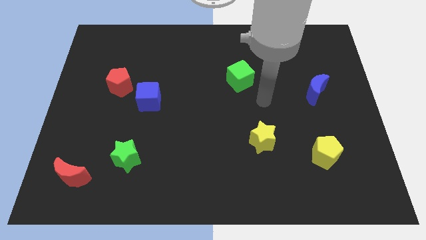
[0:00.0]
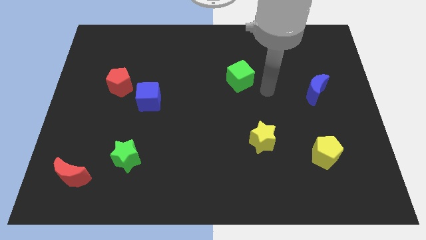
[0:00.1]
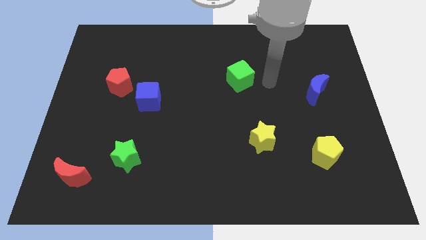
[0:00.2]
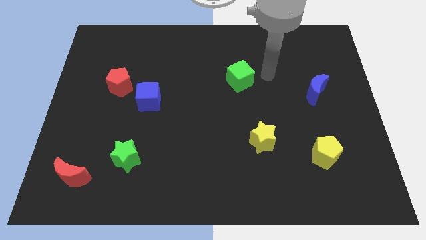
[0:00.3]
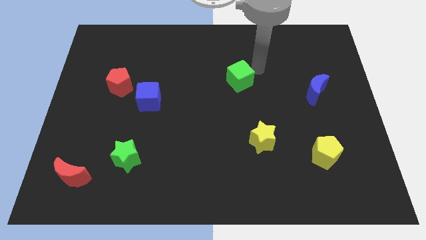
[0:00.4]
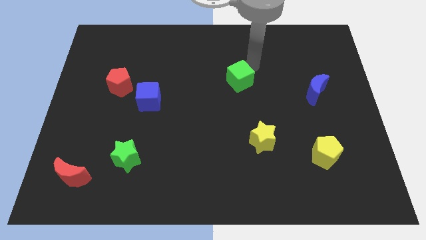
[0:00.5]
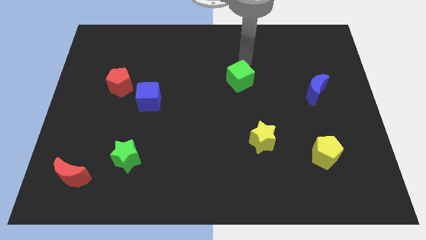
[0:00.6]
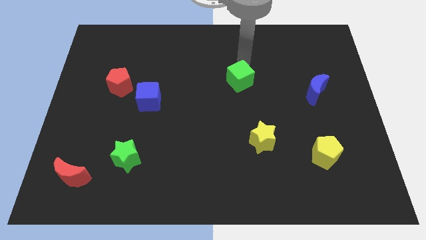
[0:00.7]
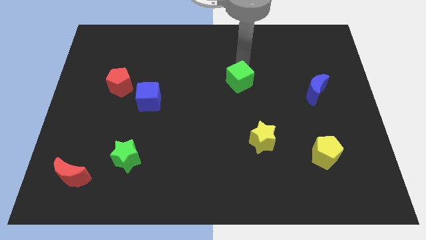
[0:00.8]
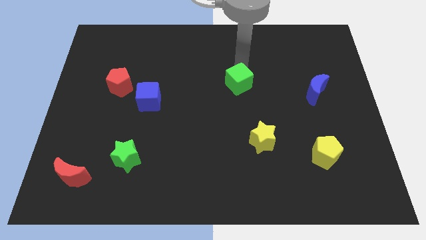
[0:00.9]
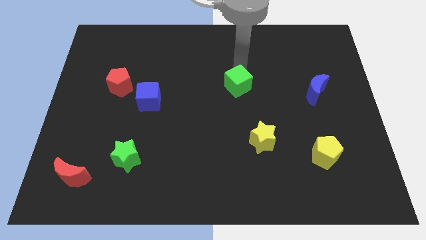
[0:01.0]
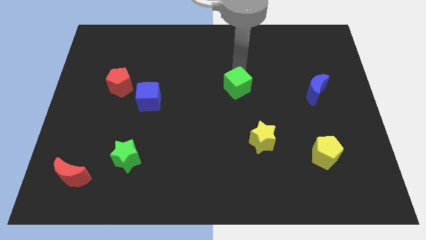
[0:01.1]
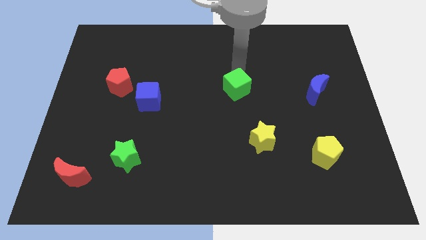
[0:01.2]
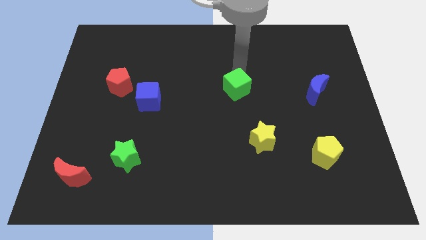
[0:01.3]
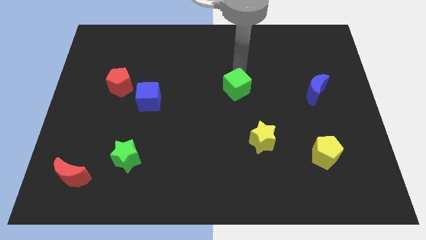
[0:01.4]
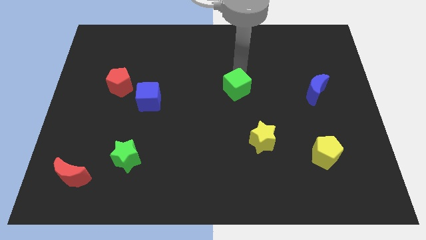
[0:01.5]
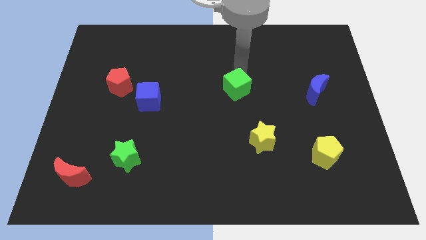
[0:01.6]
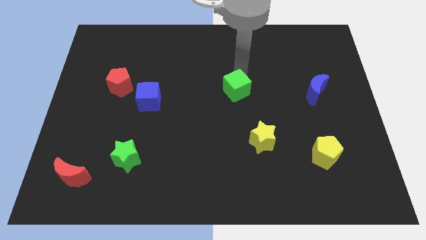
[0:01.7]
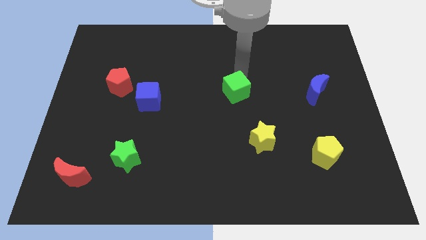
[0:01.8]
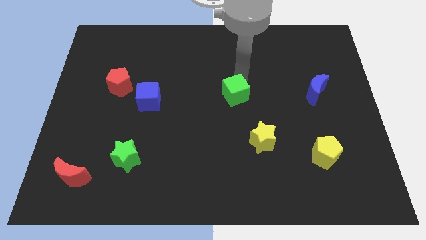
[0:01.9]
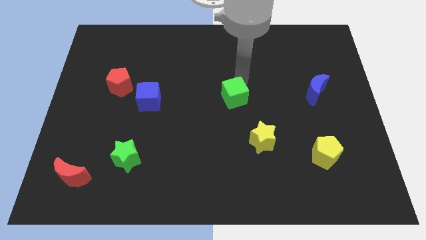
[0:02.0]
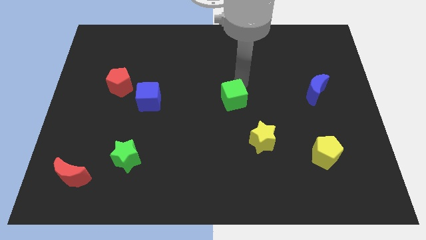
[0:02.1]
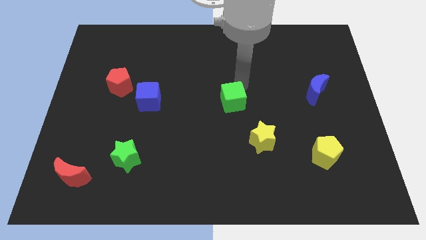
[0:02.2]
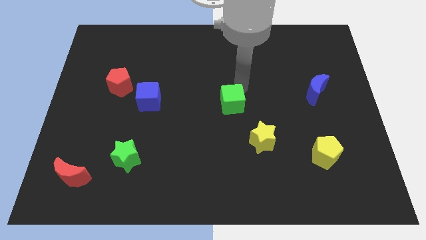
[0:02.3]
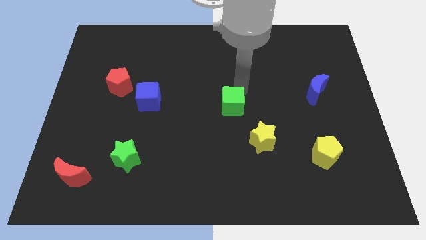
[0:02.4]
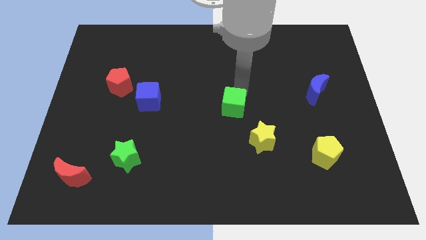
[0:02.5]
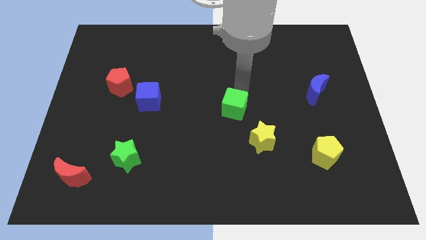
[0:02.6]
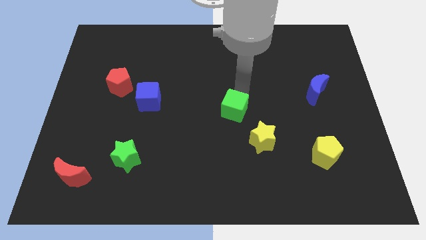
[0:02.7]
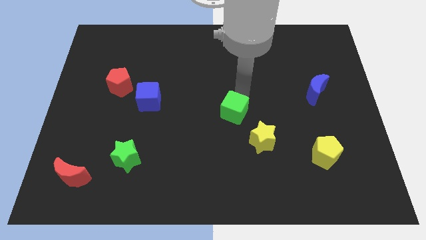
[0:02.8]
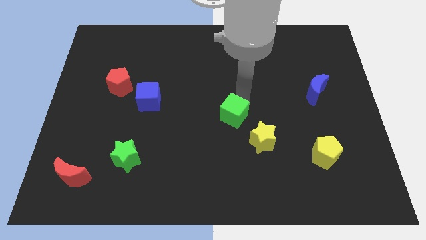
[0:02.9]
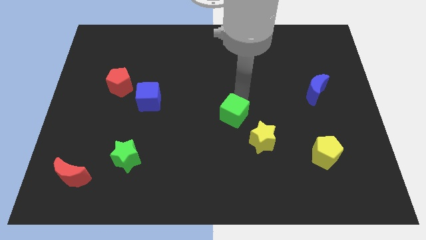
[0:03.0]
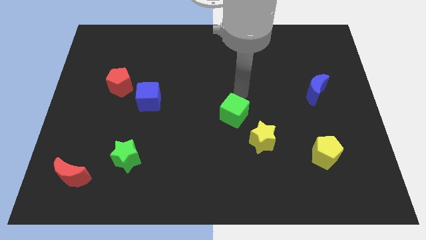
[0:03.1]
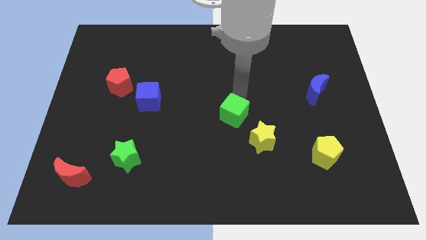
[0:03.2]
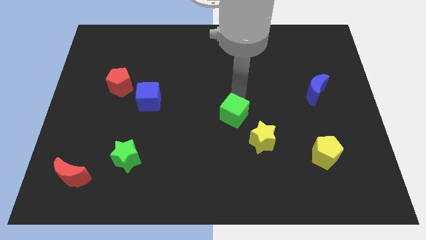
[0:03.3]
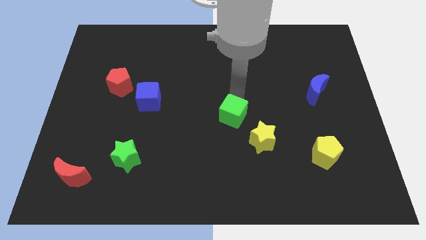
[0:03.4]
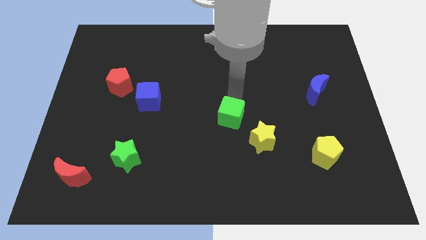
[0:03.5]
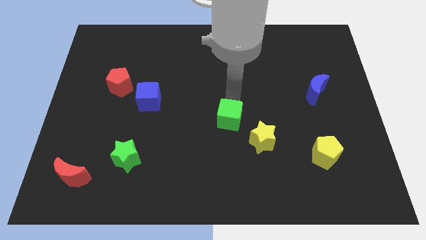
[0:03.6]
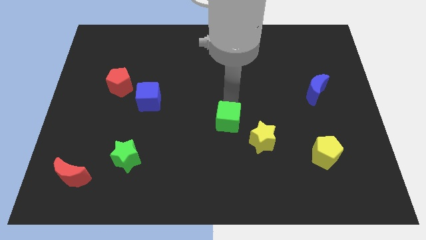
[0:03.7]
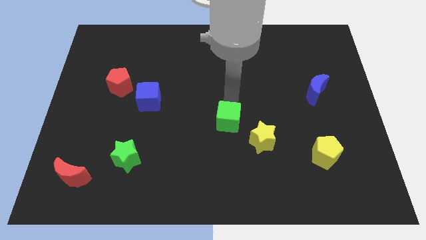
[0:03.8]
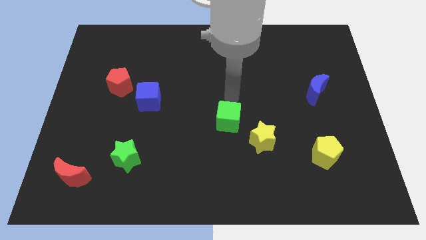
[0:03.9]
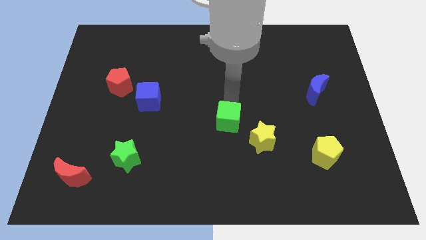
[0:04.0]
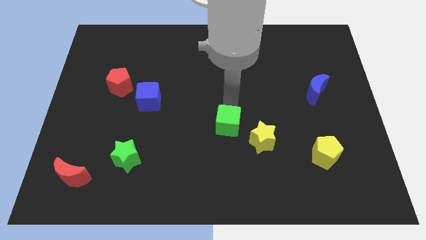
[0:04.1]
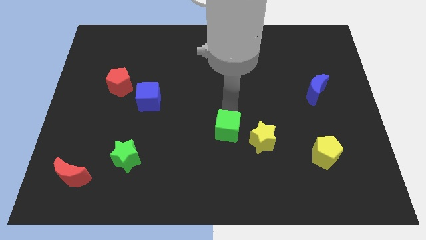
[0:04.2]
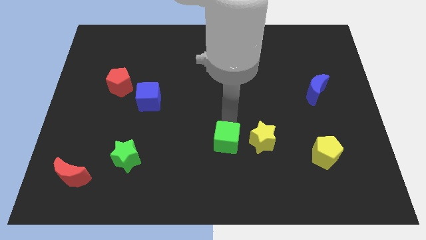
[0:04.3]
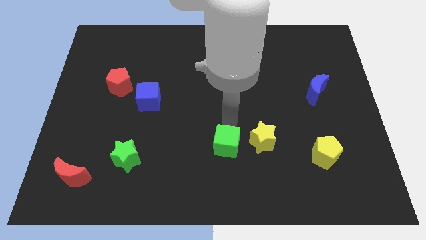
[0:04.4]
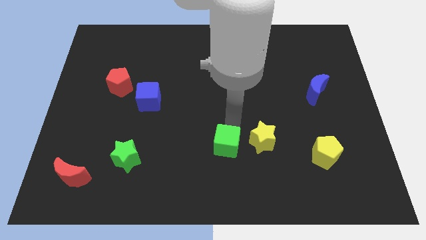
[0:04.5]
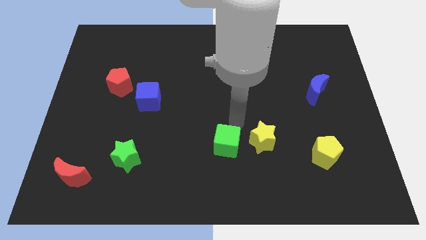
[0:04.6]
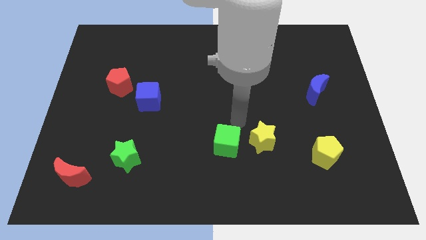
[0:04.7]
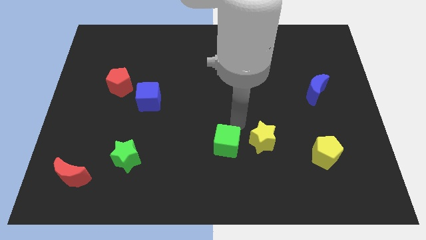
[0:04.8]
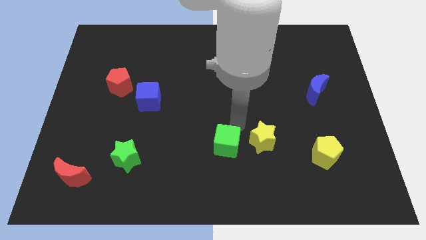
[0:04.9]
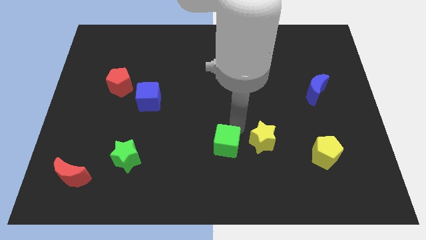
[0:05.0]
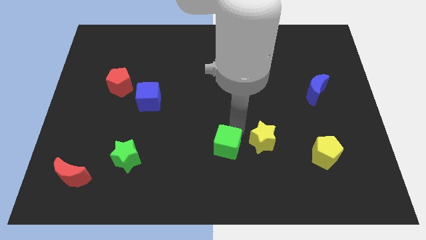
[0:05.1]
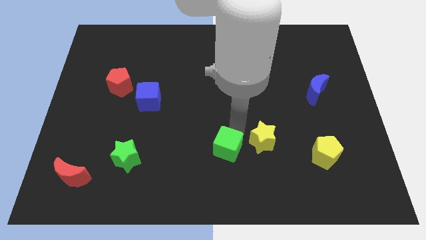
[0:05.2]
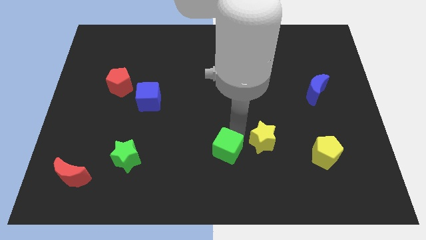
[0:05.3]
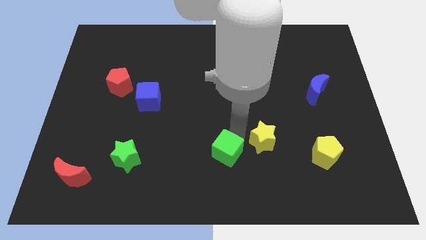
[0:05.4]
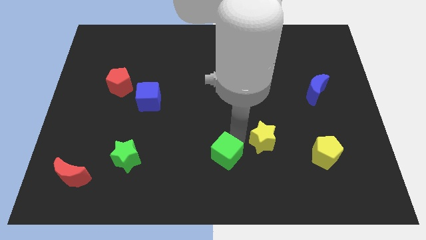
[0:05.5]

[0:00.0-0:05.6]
move the green cube to the bottom side

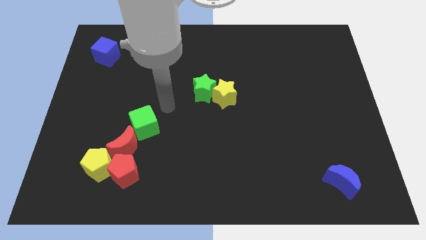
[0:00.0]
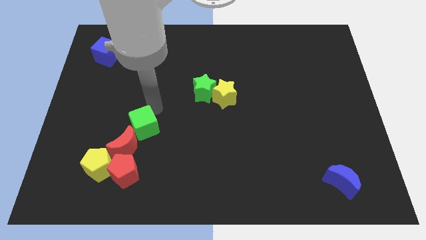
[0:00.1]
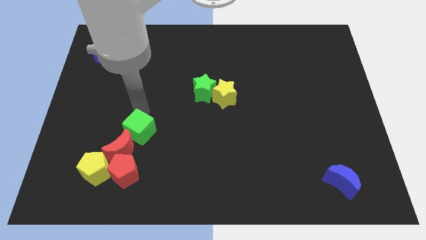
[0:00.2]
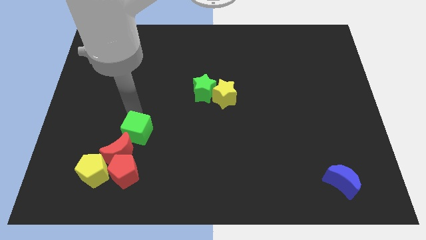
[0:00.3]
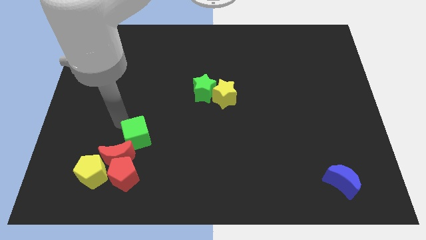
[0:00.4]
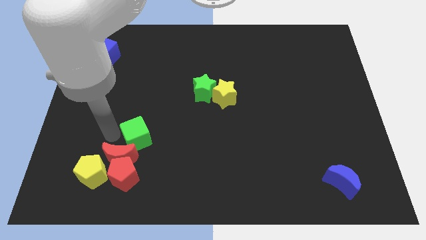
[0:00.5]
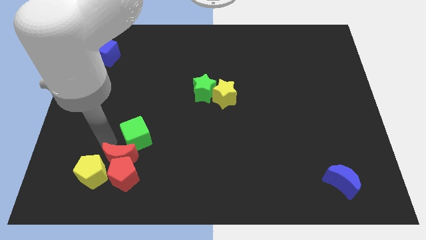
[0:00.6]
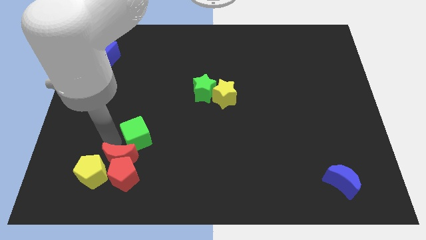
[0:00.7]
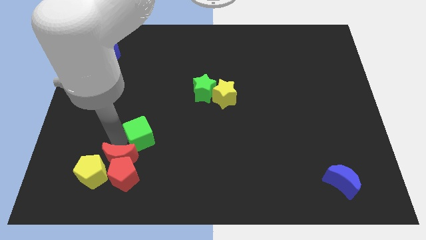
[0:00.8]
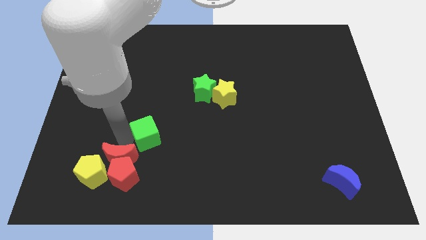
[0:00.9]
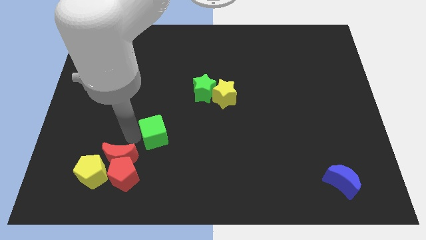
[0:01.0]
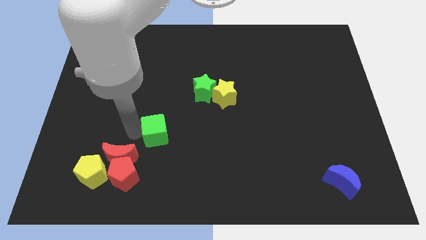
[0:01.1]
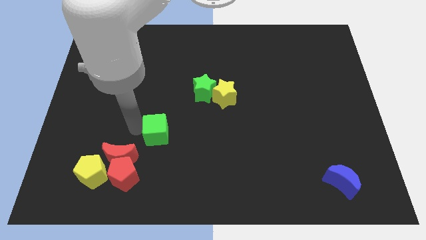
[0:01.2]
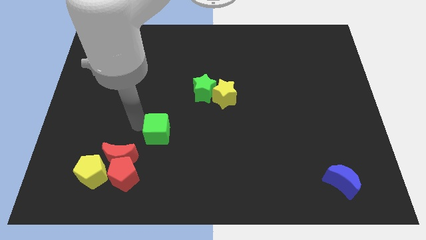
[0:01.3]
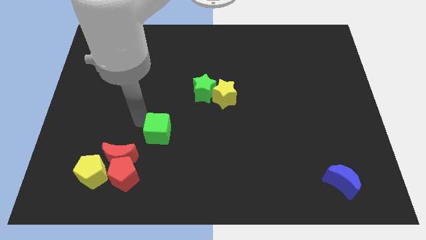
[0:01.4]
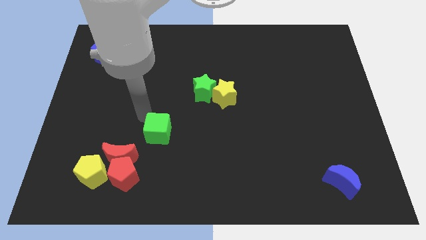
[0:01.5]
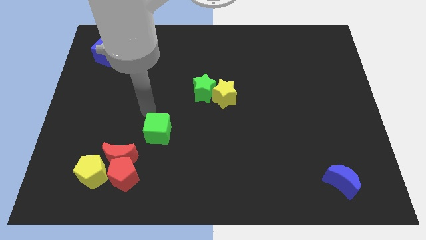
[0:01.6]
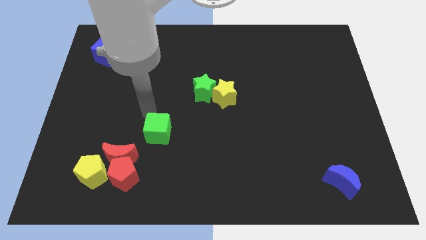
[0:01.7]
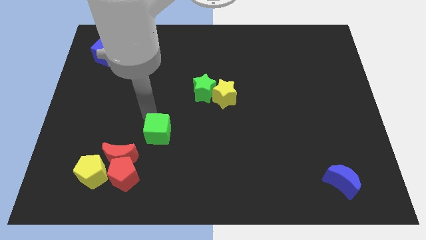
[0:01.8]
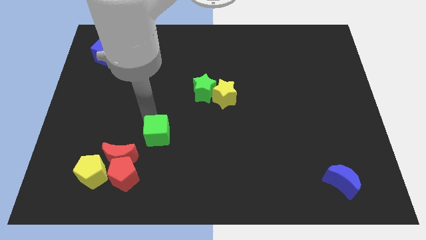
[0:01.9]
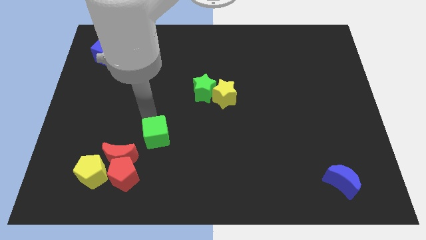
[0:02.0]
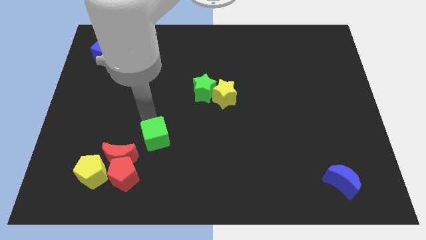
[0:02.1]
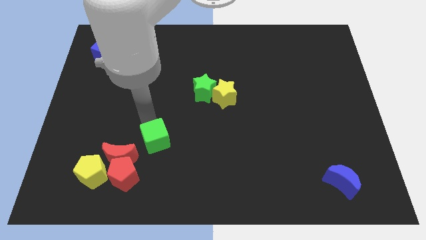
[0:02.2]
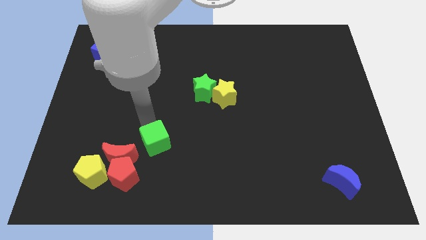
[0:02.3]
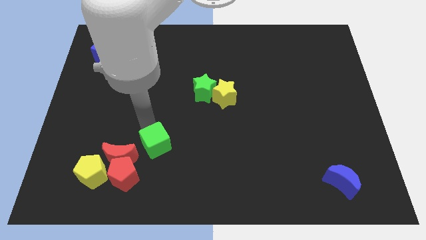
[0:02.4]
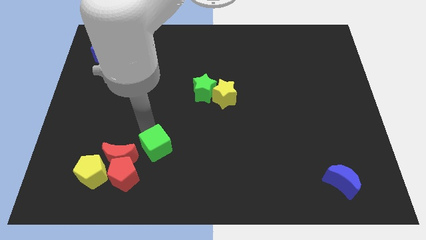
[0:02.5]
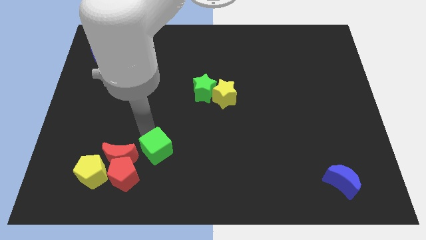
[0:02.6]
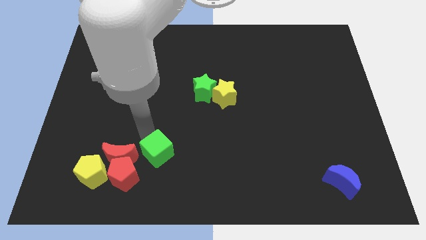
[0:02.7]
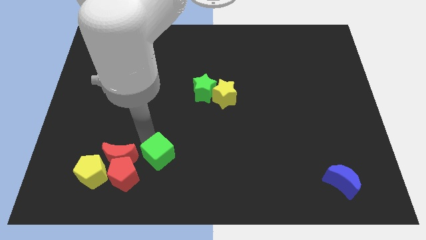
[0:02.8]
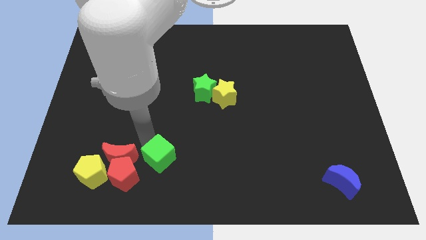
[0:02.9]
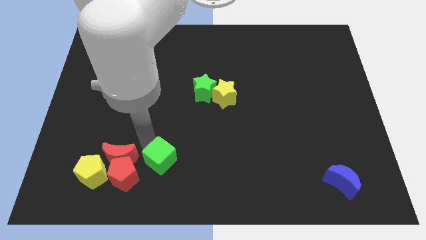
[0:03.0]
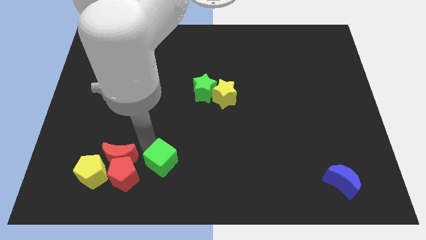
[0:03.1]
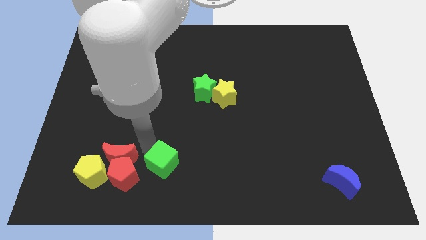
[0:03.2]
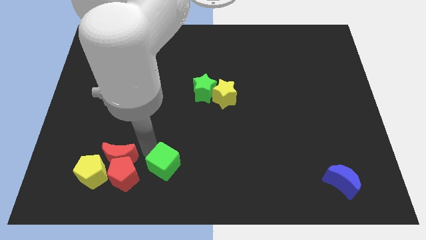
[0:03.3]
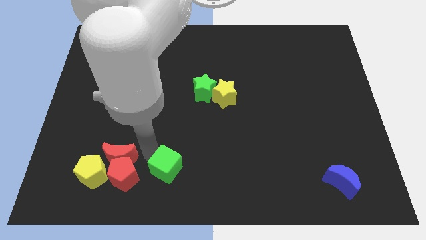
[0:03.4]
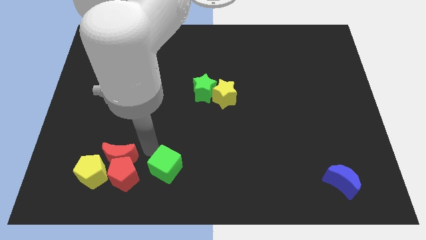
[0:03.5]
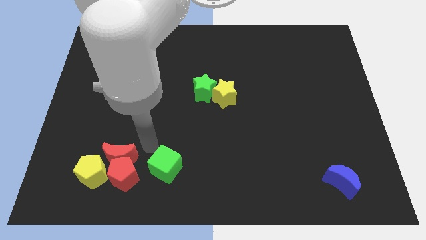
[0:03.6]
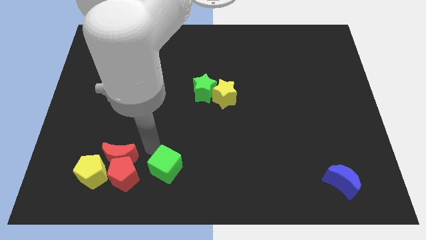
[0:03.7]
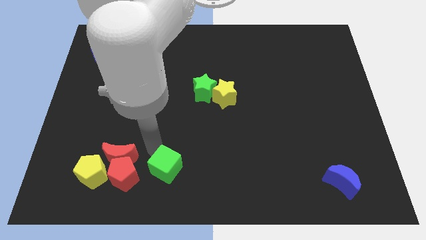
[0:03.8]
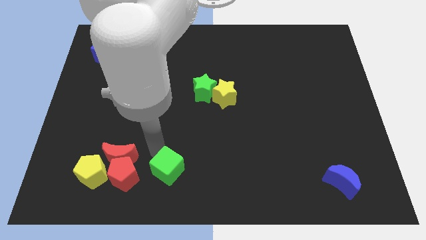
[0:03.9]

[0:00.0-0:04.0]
push the green cube to the bottom side
